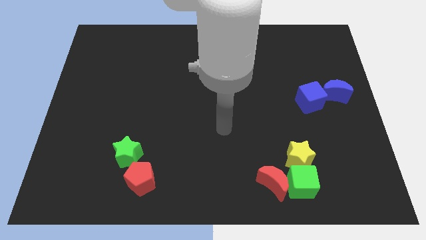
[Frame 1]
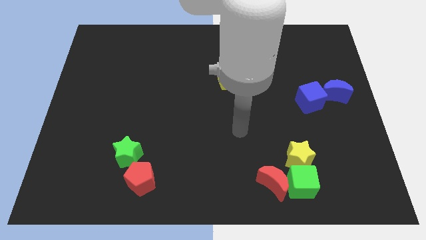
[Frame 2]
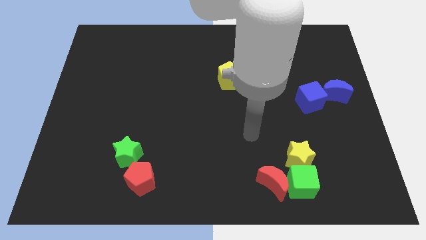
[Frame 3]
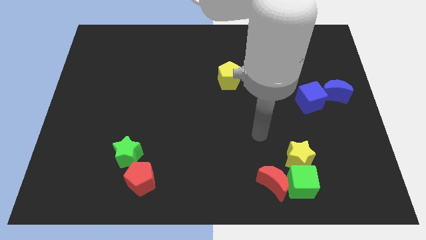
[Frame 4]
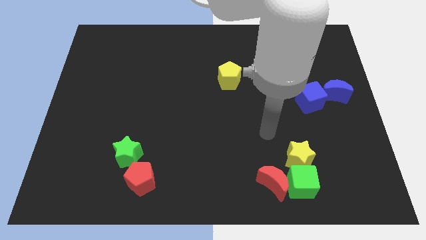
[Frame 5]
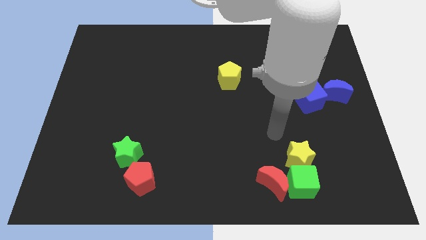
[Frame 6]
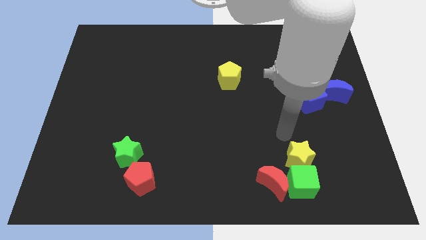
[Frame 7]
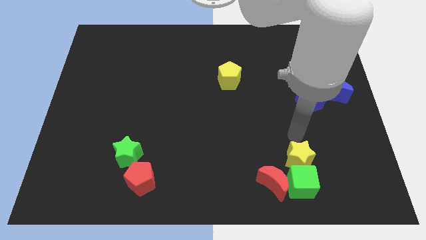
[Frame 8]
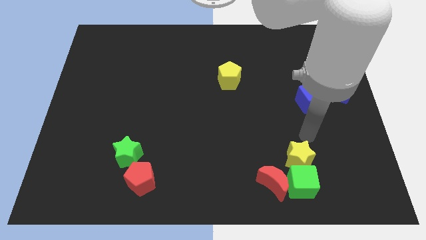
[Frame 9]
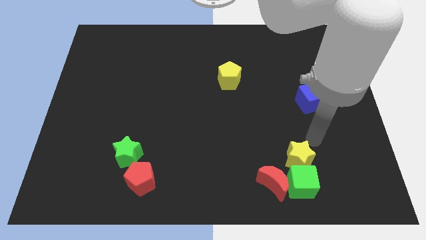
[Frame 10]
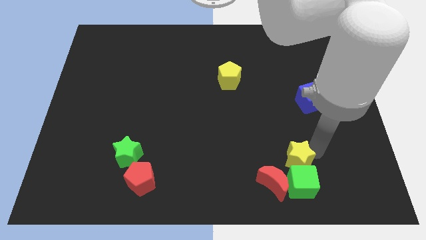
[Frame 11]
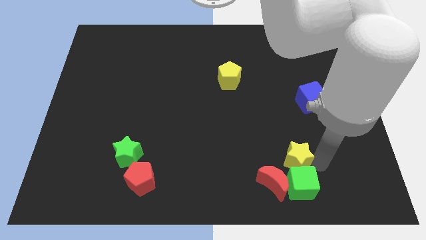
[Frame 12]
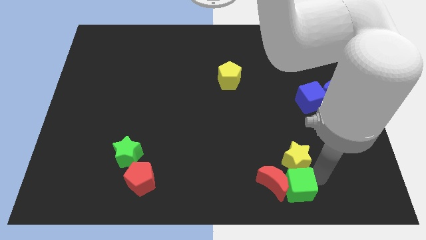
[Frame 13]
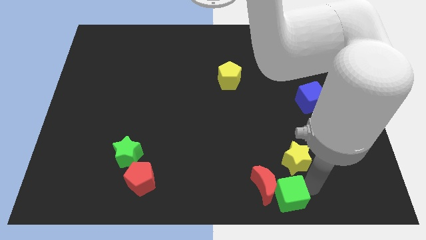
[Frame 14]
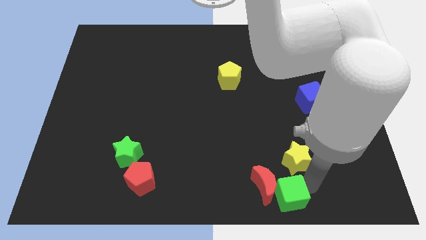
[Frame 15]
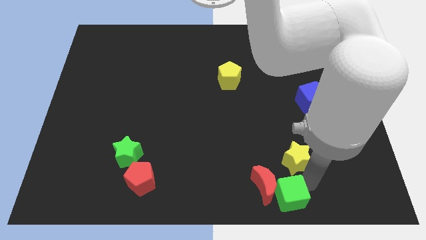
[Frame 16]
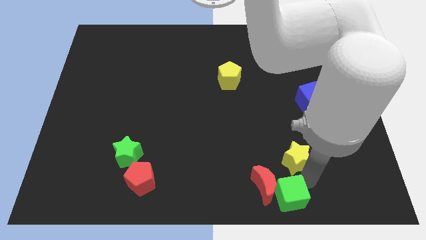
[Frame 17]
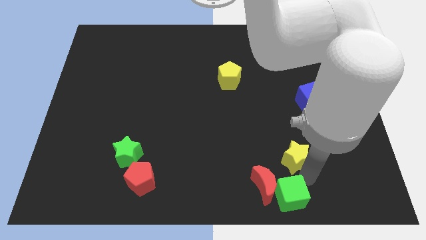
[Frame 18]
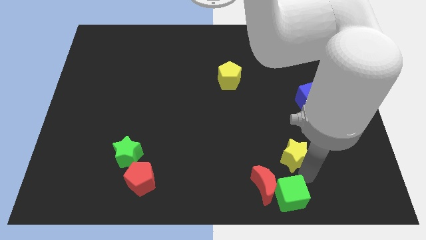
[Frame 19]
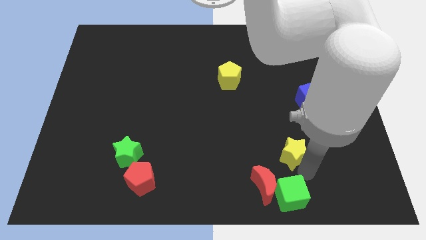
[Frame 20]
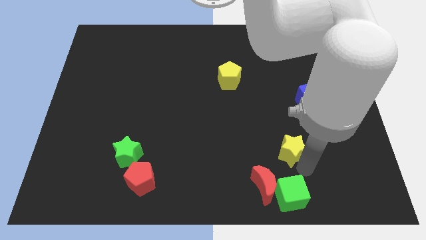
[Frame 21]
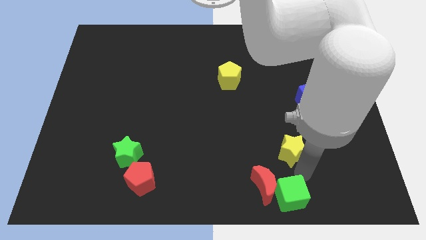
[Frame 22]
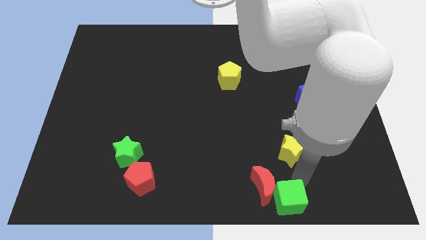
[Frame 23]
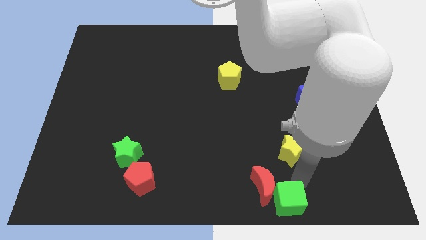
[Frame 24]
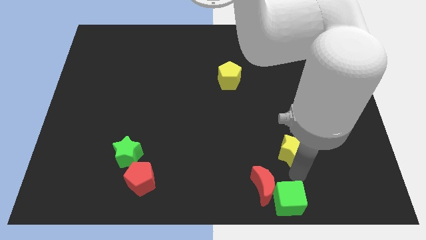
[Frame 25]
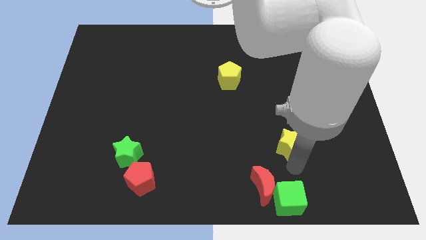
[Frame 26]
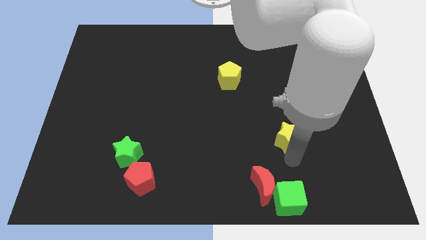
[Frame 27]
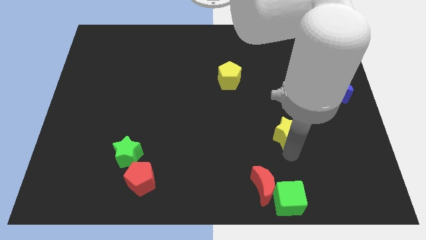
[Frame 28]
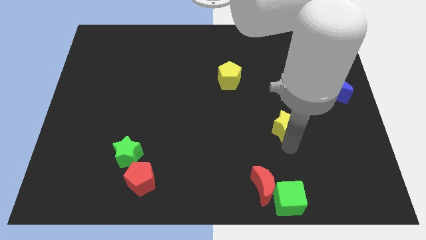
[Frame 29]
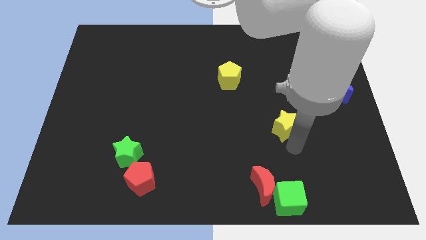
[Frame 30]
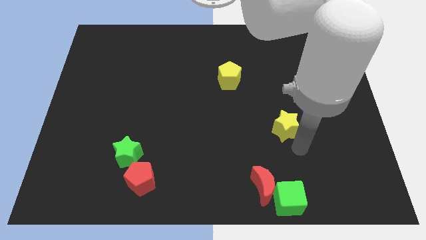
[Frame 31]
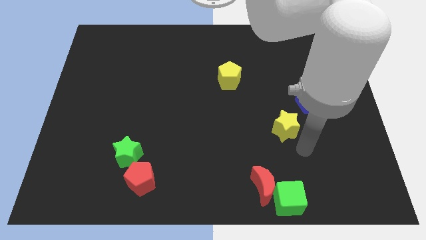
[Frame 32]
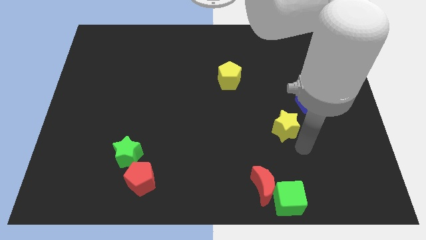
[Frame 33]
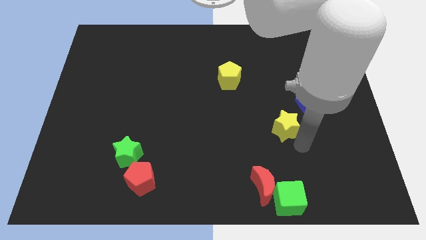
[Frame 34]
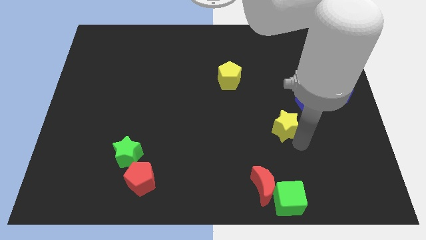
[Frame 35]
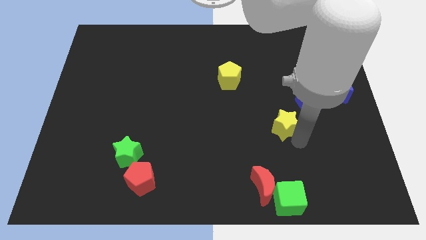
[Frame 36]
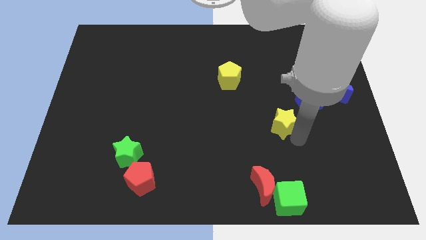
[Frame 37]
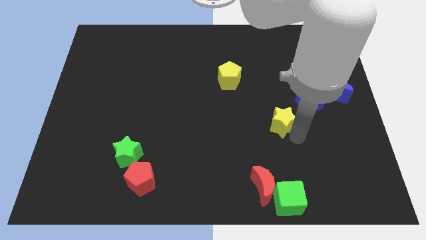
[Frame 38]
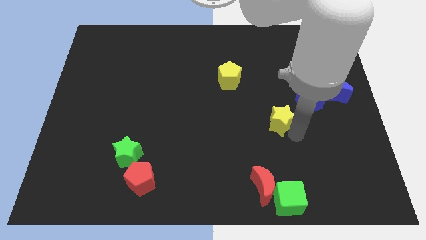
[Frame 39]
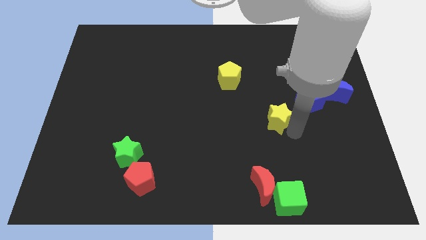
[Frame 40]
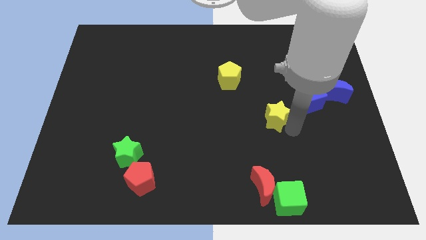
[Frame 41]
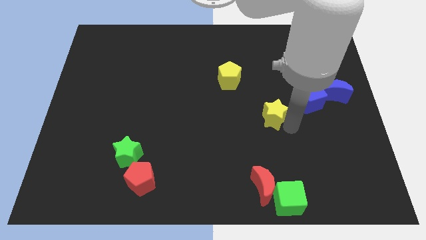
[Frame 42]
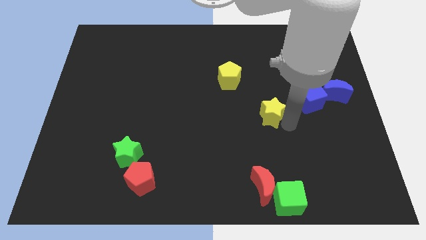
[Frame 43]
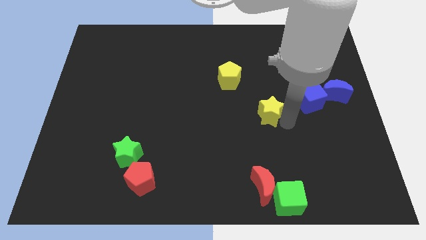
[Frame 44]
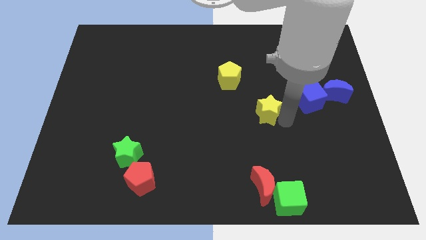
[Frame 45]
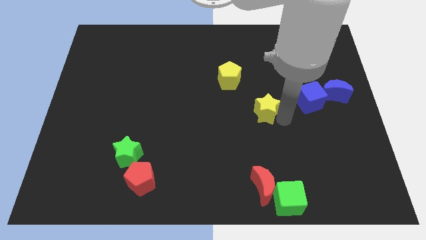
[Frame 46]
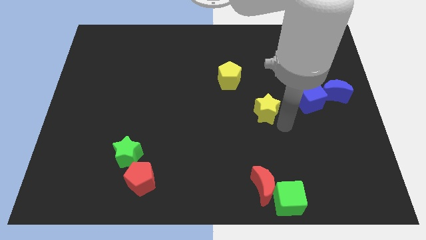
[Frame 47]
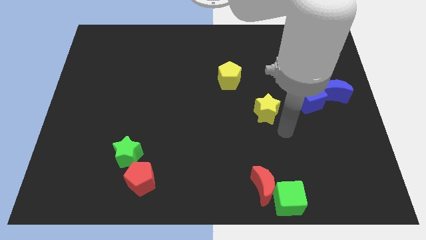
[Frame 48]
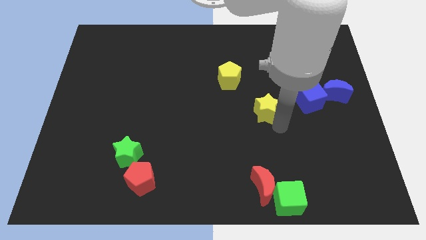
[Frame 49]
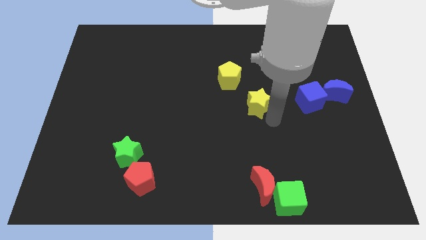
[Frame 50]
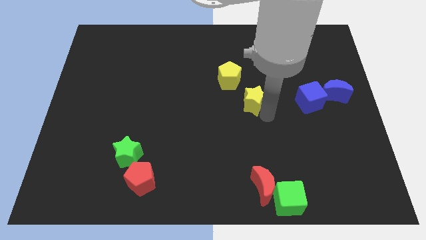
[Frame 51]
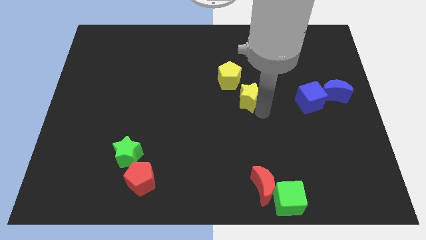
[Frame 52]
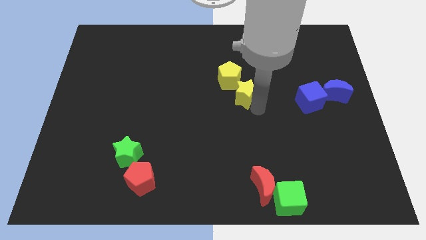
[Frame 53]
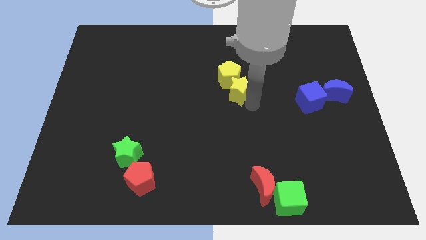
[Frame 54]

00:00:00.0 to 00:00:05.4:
put the yellow star close to the yellow pentagon

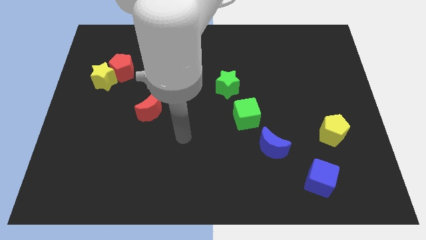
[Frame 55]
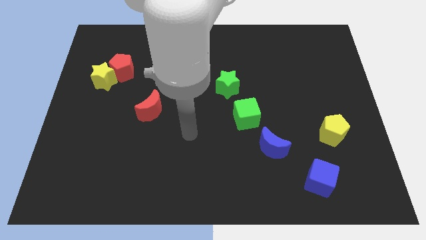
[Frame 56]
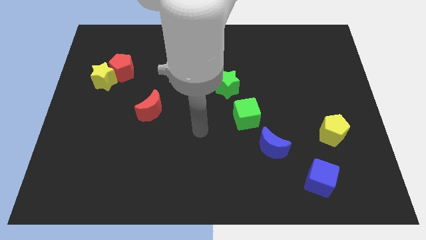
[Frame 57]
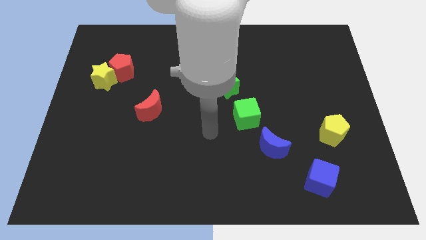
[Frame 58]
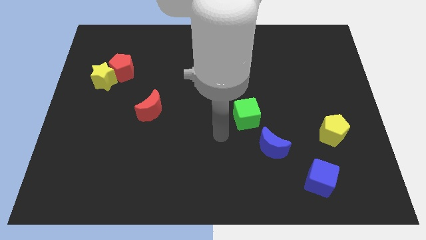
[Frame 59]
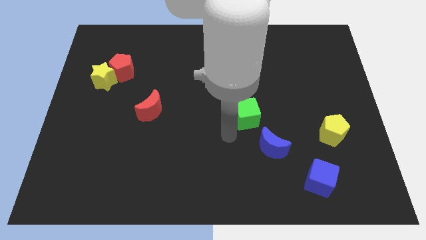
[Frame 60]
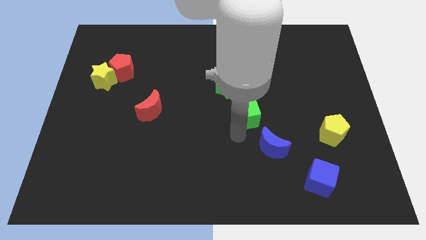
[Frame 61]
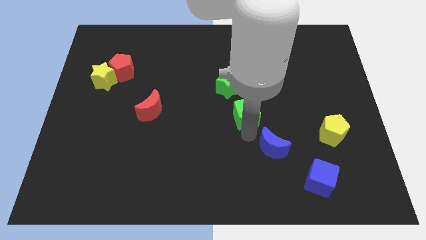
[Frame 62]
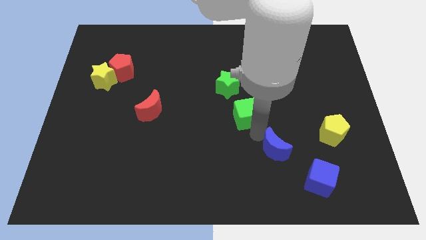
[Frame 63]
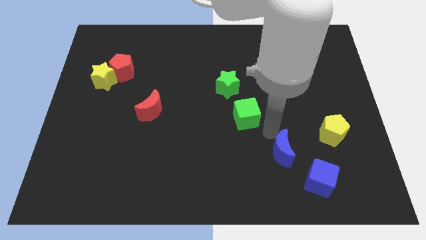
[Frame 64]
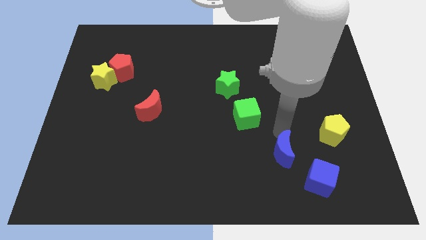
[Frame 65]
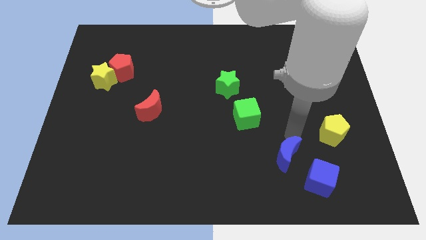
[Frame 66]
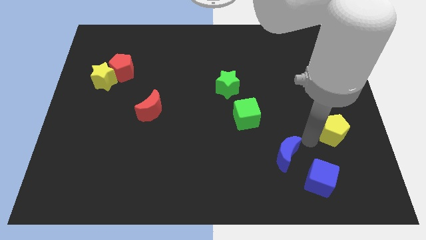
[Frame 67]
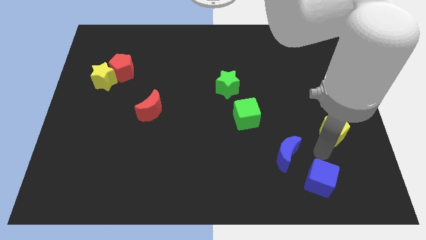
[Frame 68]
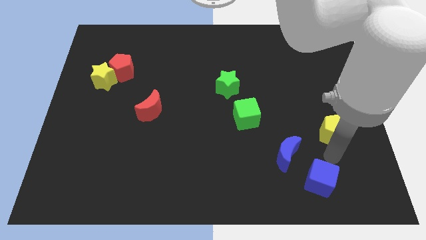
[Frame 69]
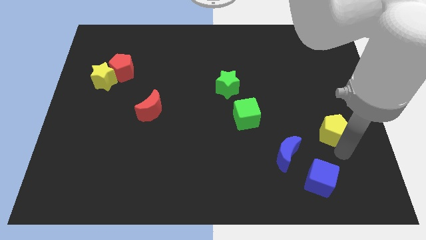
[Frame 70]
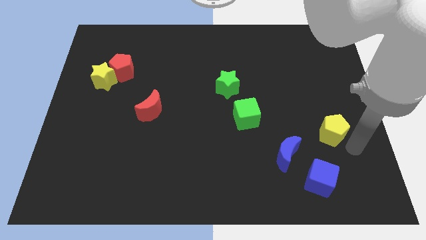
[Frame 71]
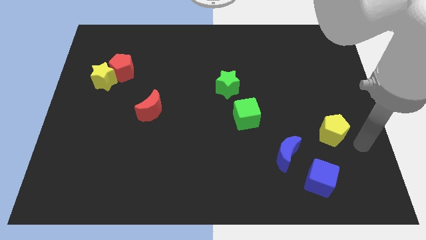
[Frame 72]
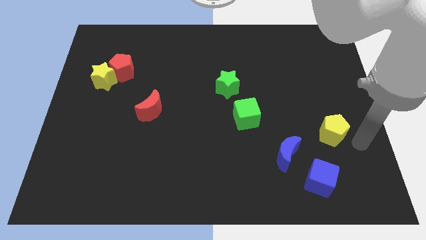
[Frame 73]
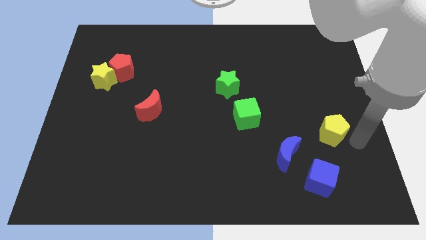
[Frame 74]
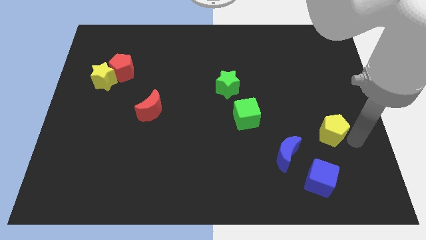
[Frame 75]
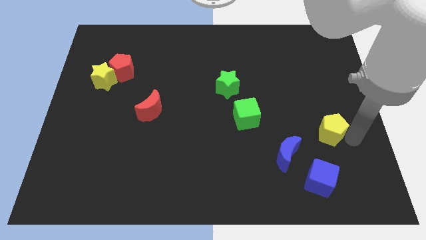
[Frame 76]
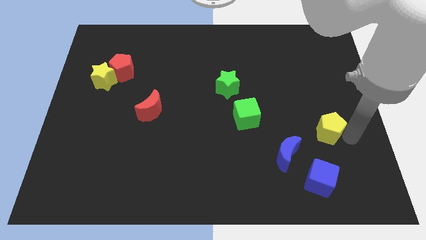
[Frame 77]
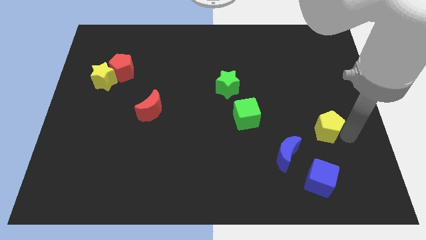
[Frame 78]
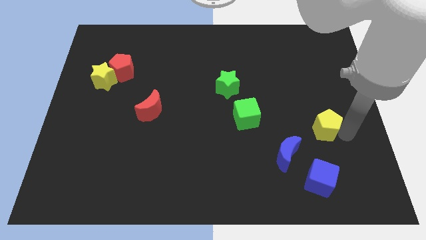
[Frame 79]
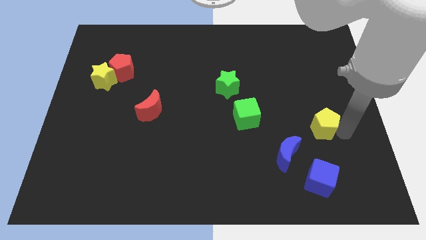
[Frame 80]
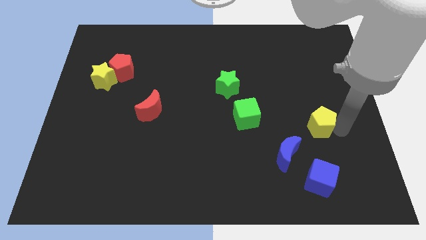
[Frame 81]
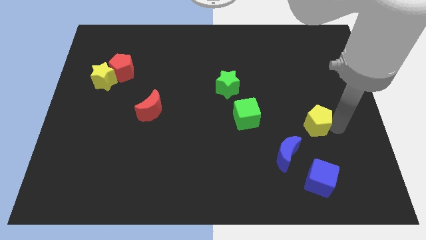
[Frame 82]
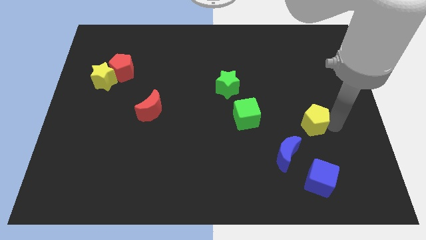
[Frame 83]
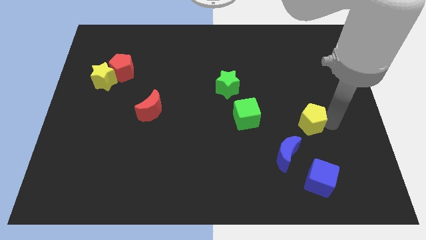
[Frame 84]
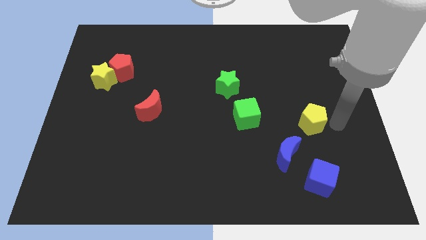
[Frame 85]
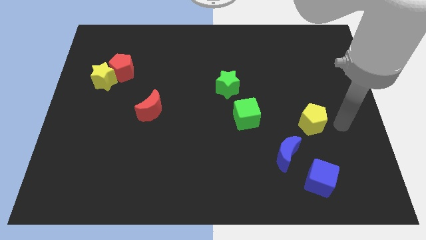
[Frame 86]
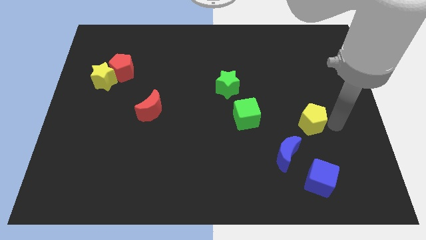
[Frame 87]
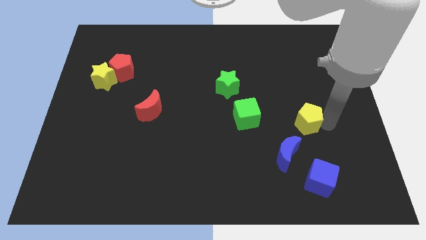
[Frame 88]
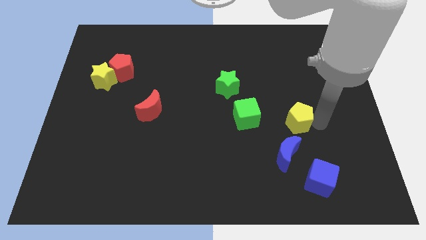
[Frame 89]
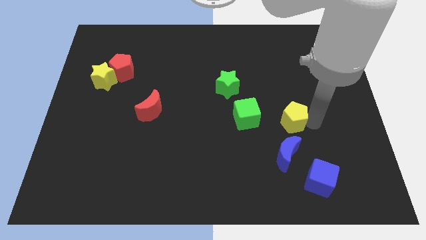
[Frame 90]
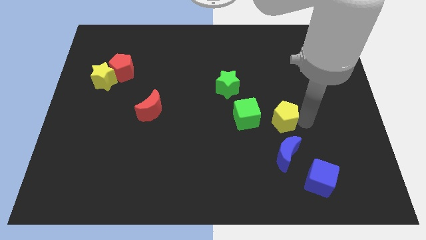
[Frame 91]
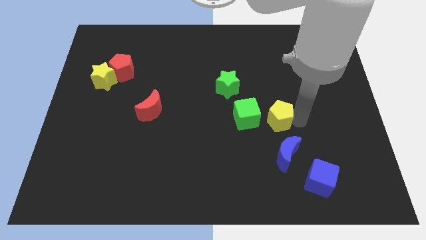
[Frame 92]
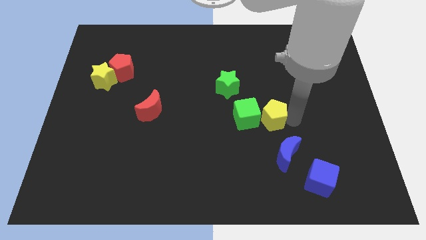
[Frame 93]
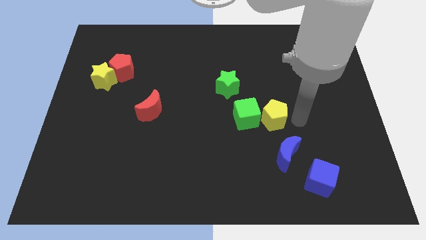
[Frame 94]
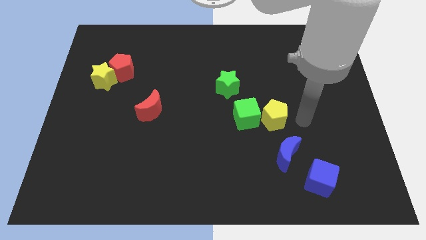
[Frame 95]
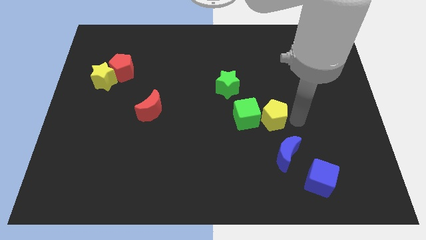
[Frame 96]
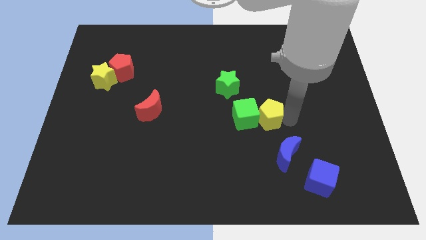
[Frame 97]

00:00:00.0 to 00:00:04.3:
move the yellow pentagon to the green cube
